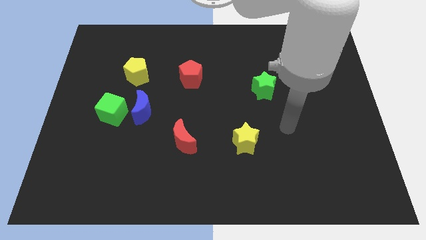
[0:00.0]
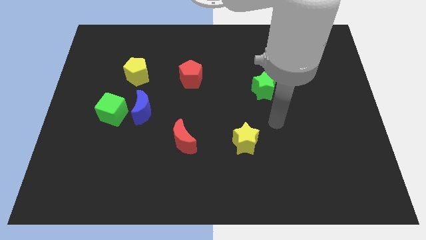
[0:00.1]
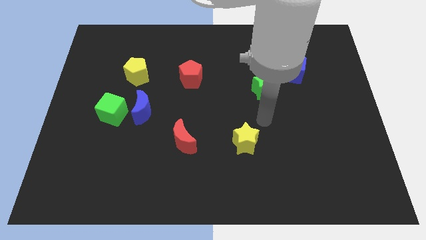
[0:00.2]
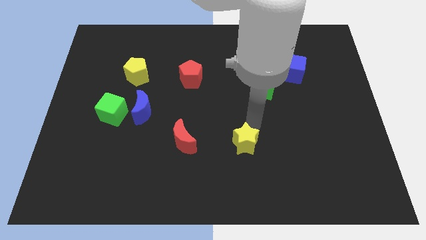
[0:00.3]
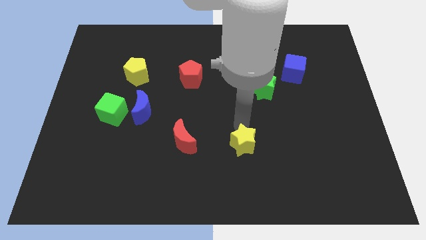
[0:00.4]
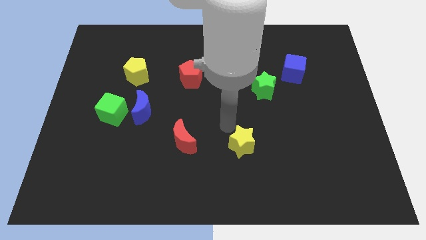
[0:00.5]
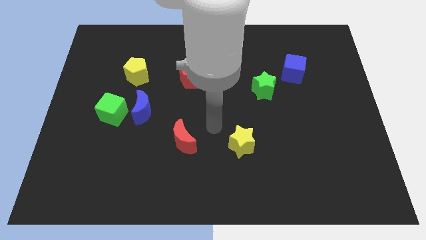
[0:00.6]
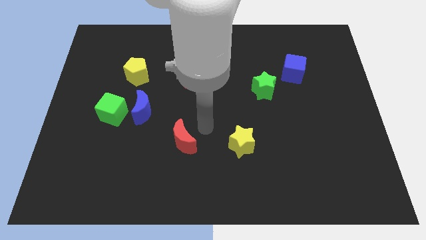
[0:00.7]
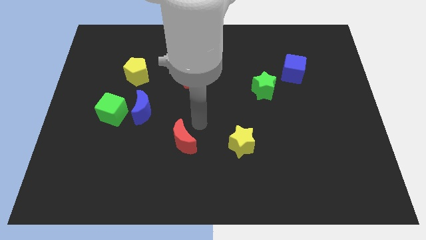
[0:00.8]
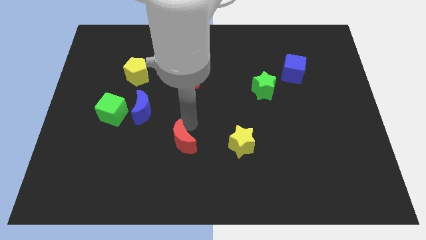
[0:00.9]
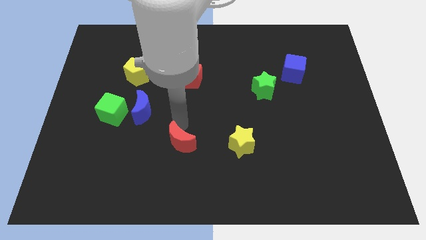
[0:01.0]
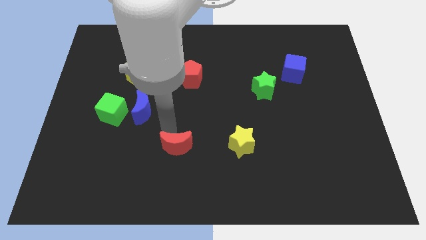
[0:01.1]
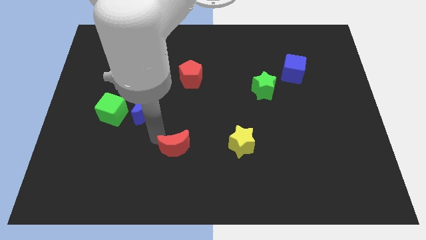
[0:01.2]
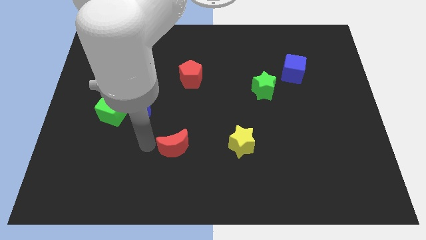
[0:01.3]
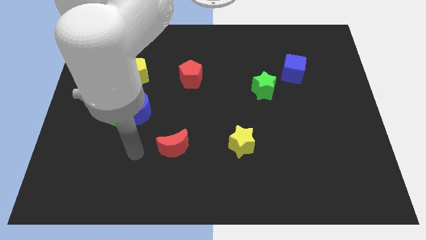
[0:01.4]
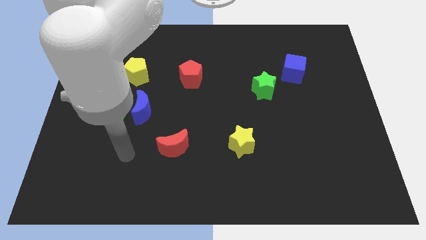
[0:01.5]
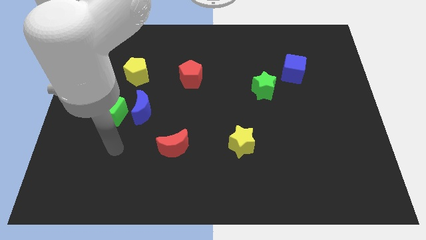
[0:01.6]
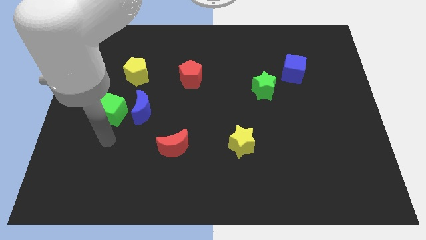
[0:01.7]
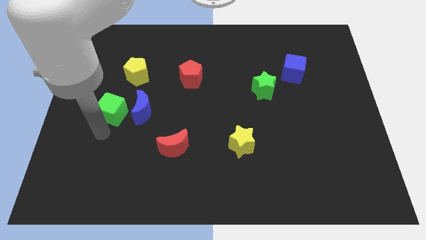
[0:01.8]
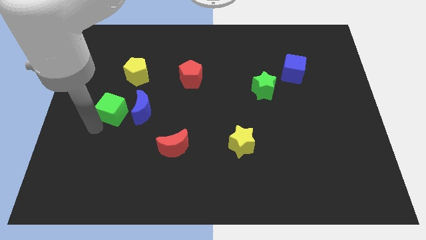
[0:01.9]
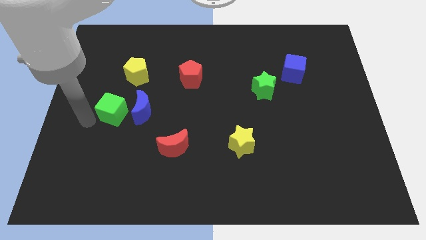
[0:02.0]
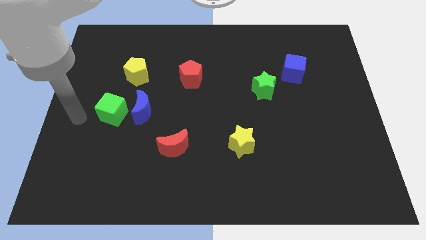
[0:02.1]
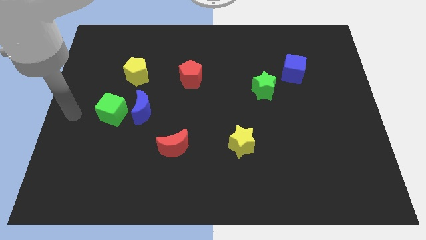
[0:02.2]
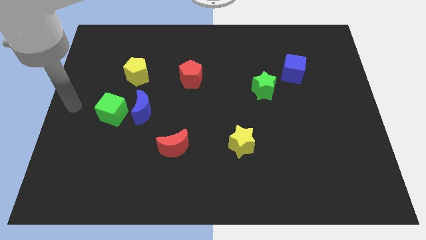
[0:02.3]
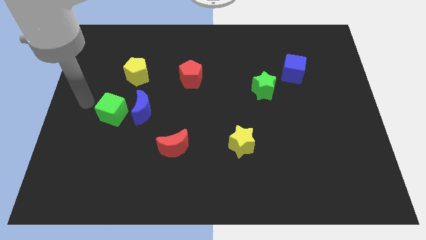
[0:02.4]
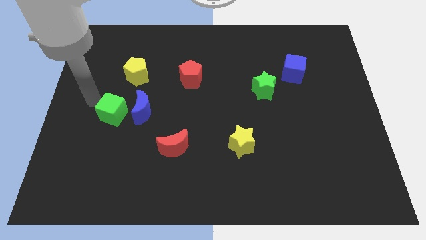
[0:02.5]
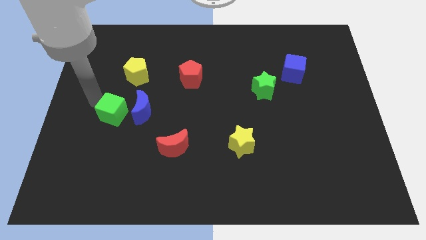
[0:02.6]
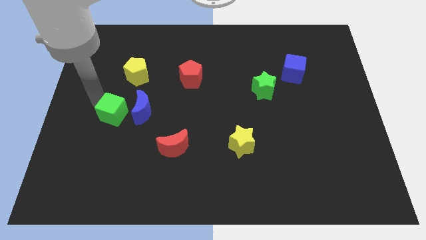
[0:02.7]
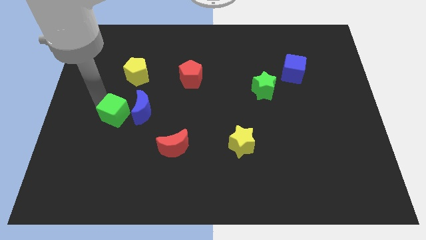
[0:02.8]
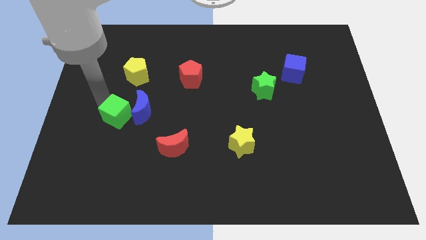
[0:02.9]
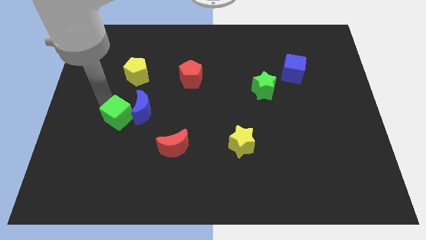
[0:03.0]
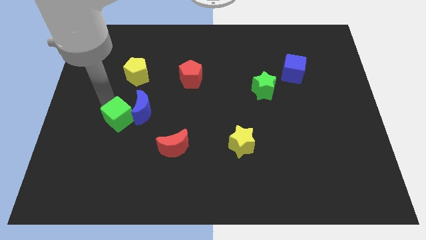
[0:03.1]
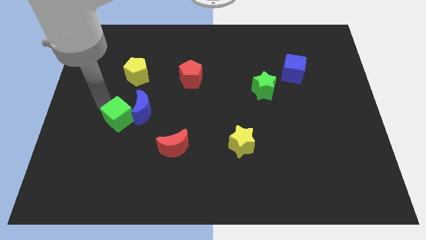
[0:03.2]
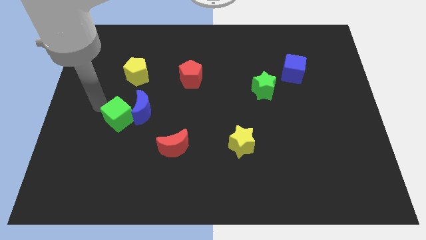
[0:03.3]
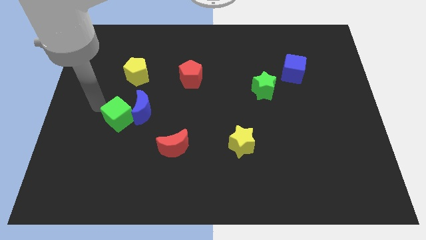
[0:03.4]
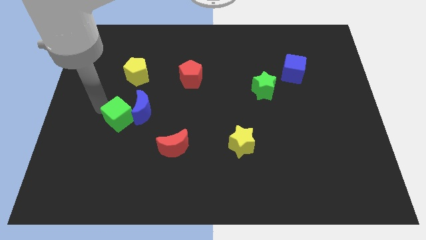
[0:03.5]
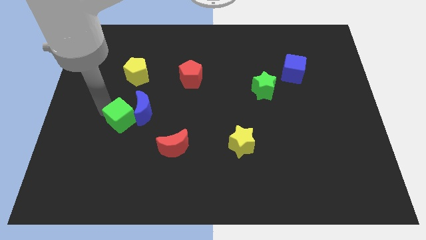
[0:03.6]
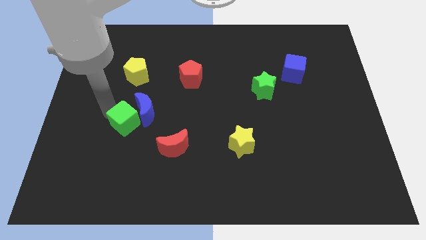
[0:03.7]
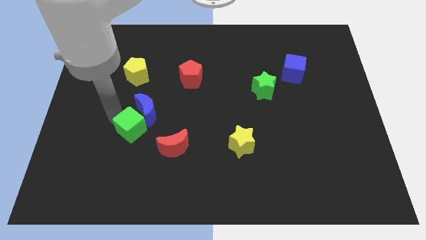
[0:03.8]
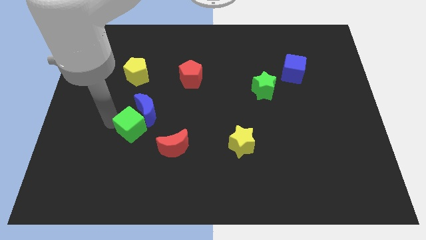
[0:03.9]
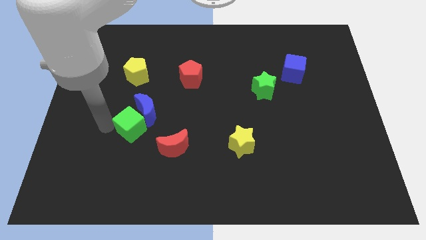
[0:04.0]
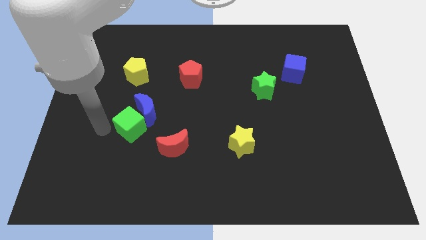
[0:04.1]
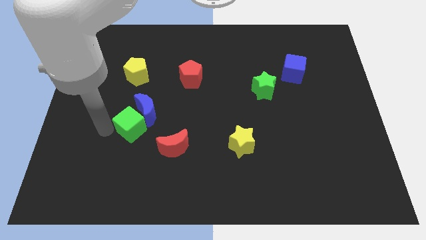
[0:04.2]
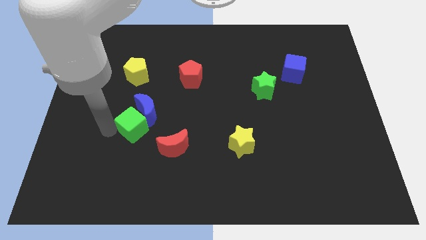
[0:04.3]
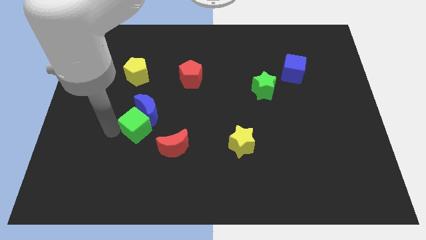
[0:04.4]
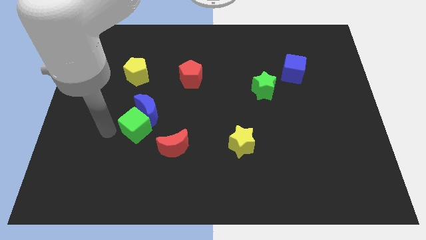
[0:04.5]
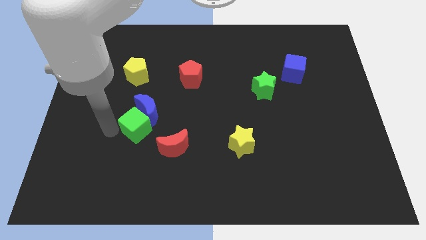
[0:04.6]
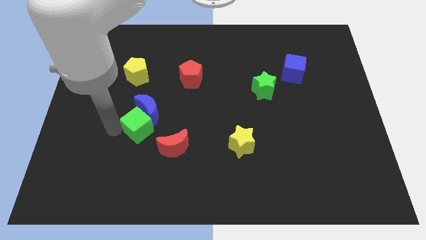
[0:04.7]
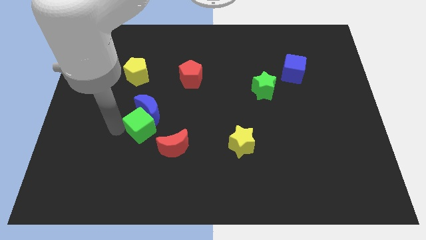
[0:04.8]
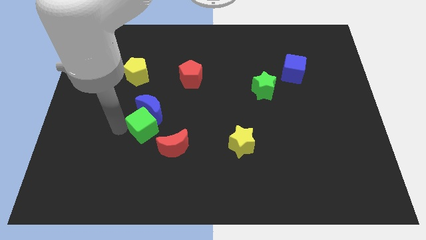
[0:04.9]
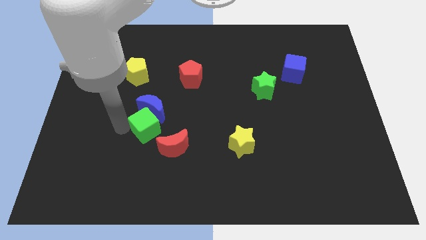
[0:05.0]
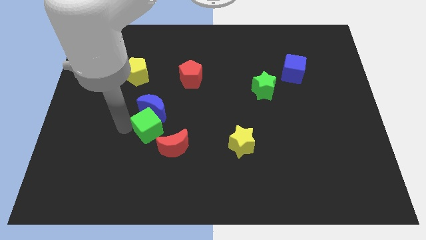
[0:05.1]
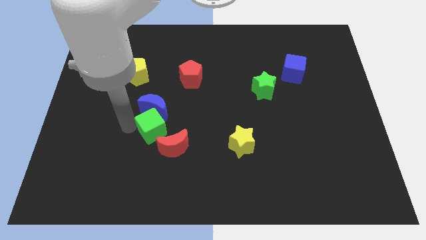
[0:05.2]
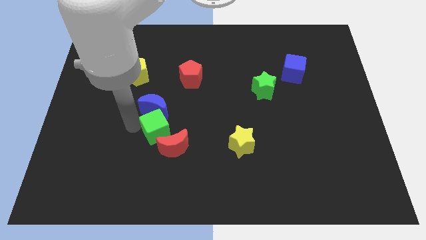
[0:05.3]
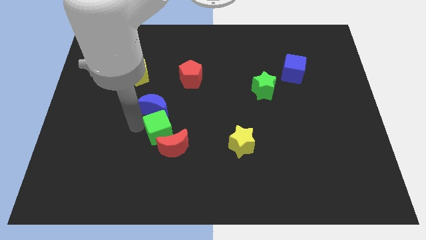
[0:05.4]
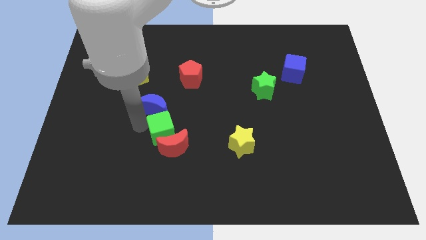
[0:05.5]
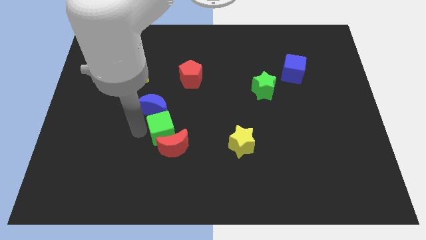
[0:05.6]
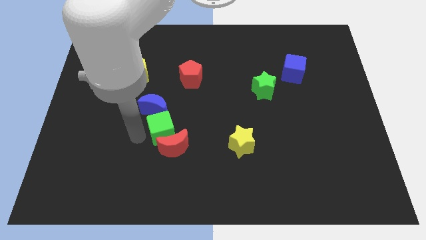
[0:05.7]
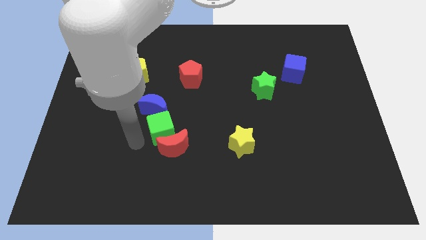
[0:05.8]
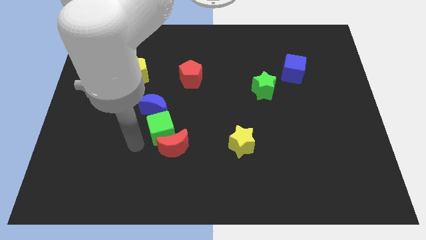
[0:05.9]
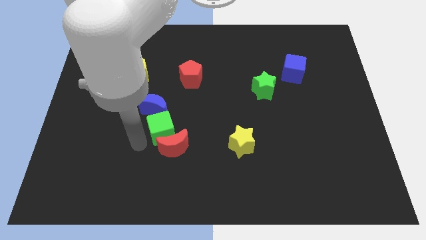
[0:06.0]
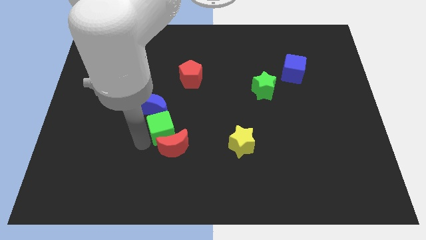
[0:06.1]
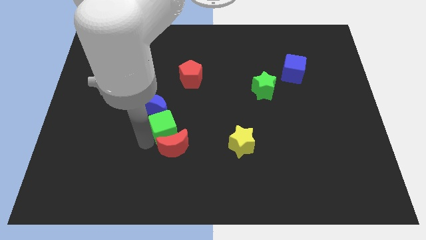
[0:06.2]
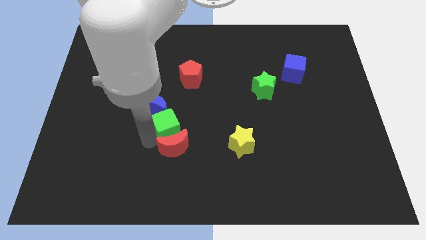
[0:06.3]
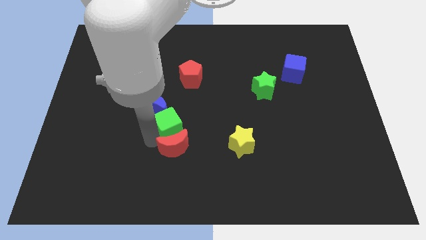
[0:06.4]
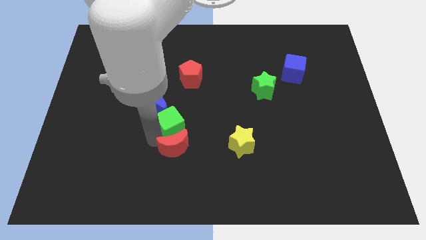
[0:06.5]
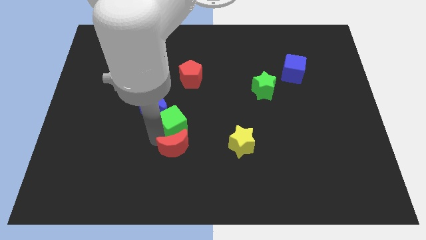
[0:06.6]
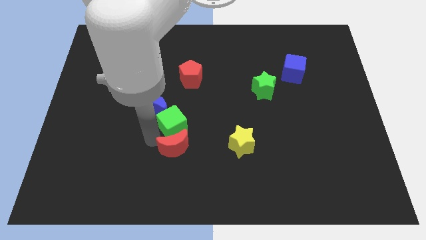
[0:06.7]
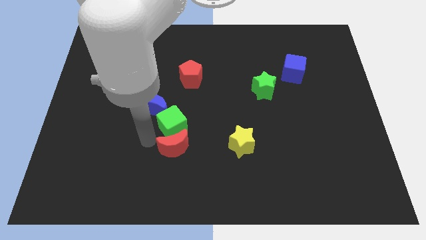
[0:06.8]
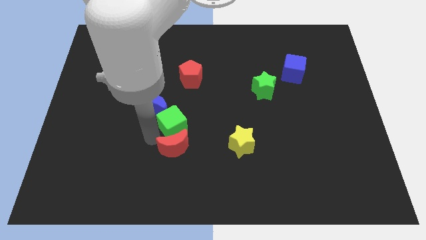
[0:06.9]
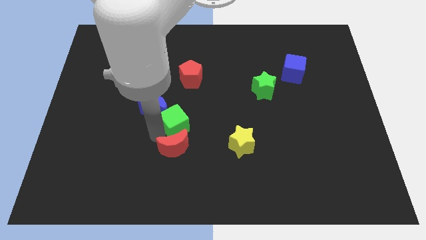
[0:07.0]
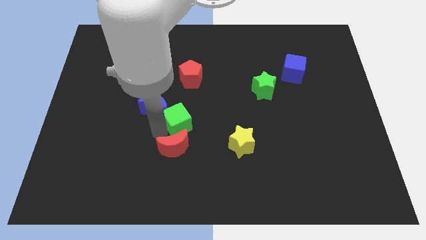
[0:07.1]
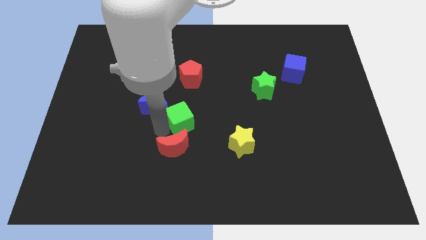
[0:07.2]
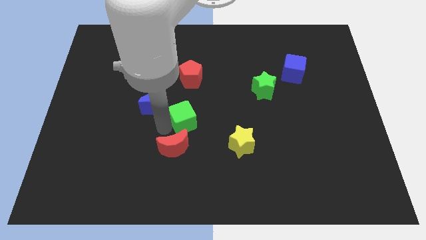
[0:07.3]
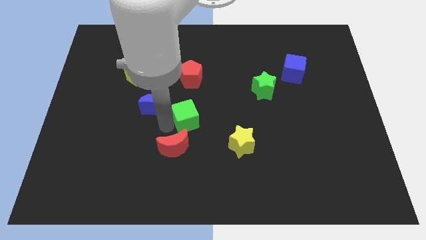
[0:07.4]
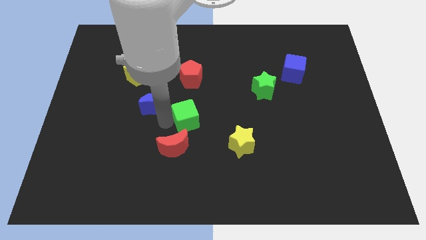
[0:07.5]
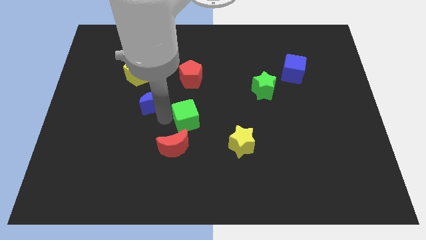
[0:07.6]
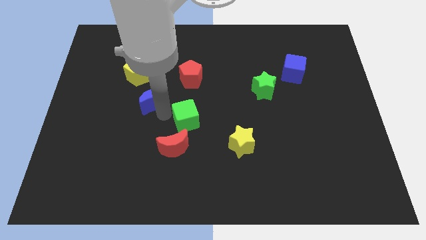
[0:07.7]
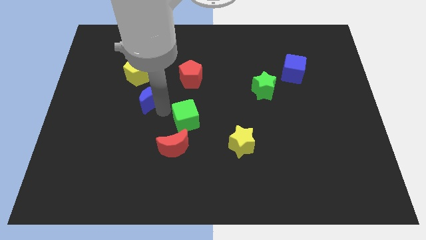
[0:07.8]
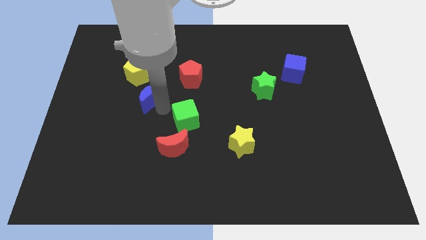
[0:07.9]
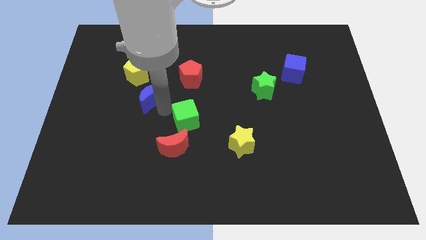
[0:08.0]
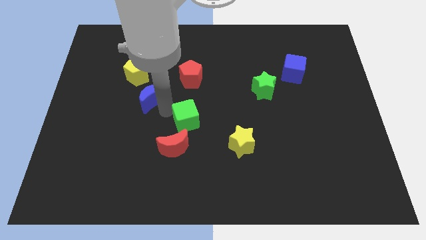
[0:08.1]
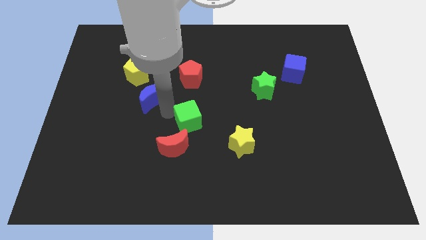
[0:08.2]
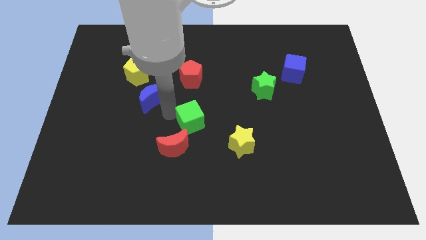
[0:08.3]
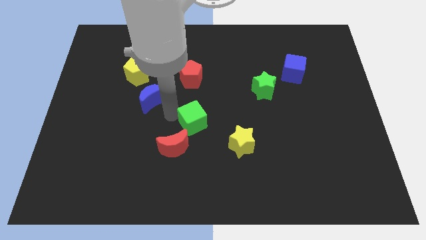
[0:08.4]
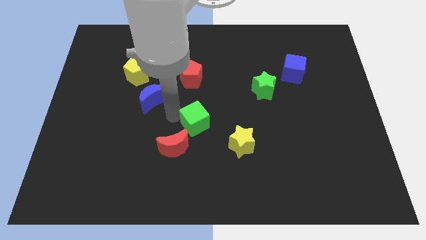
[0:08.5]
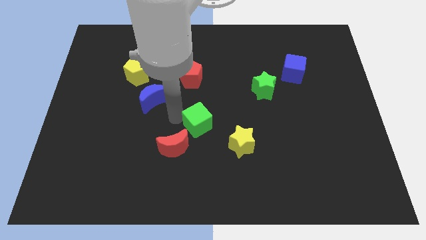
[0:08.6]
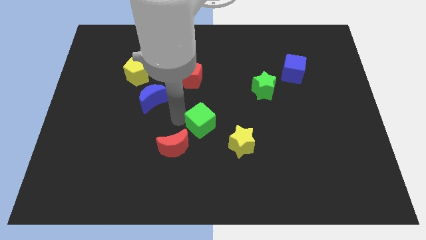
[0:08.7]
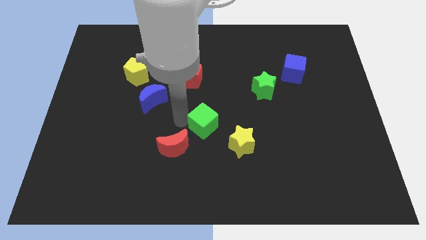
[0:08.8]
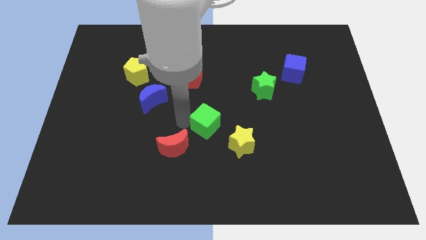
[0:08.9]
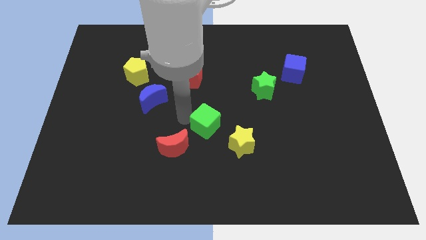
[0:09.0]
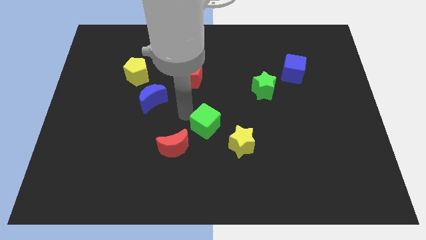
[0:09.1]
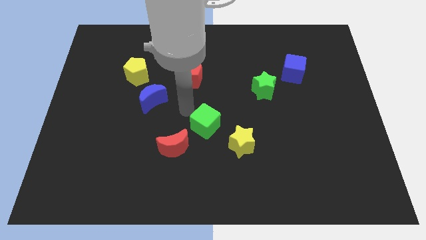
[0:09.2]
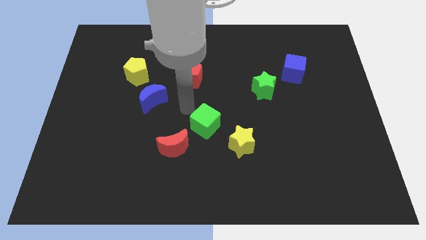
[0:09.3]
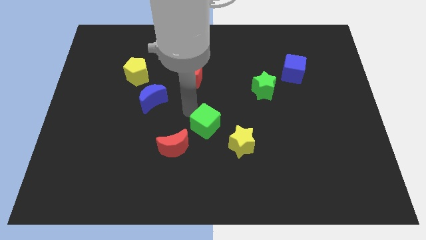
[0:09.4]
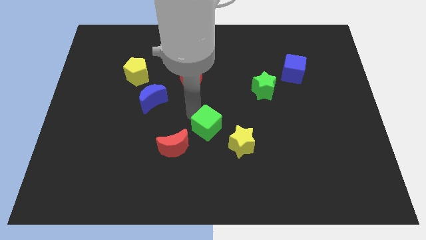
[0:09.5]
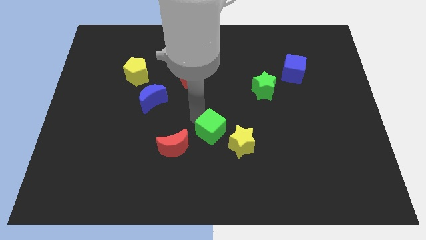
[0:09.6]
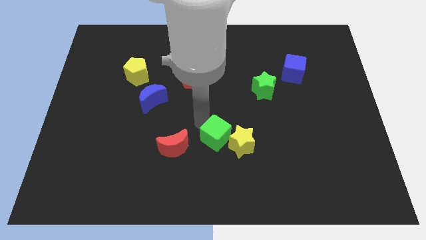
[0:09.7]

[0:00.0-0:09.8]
move the green cube to the yellow star
